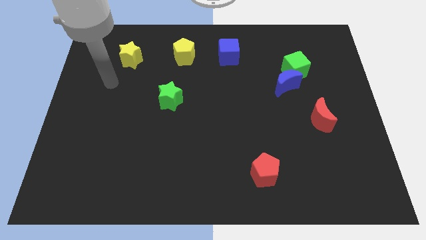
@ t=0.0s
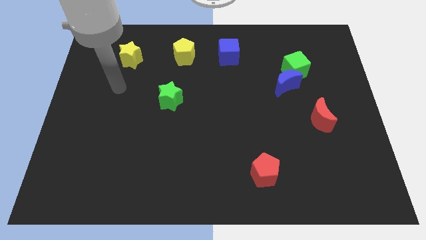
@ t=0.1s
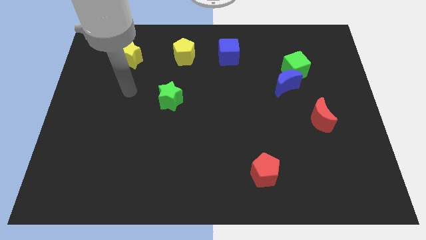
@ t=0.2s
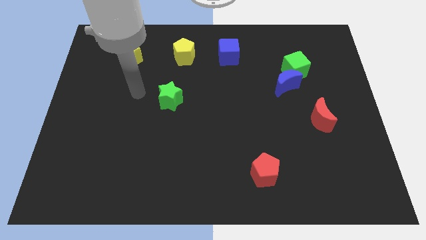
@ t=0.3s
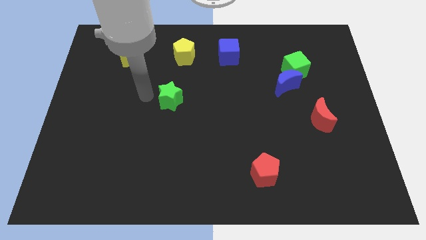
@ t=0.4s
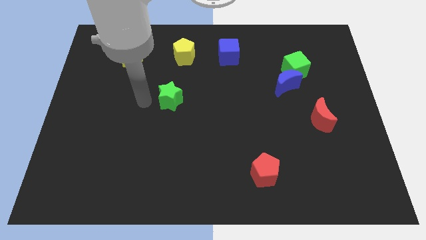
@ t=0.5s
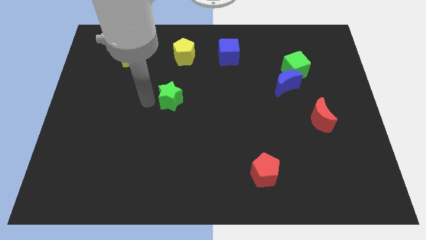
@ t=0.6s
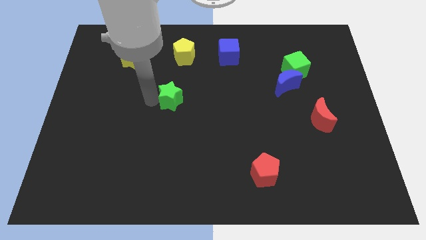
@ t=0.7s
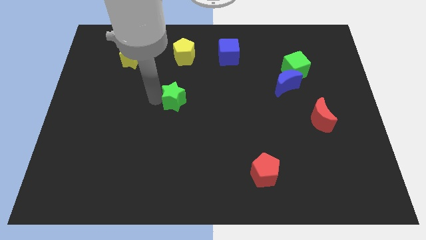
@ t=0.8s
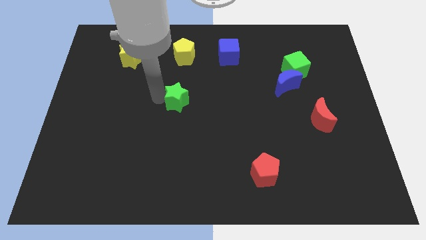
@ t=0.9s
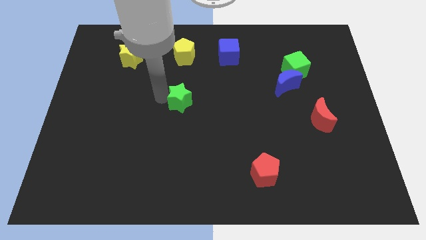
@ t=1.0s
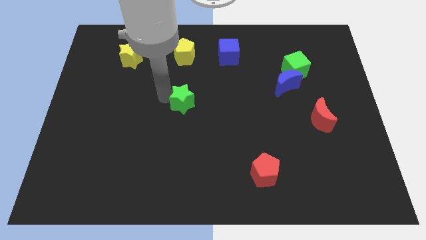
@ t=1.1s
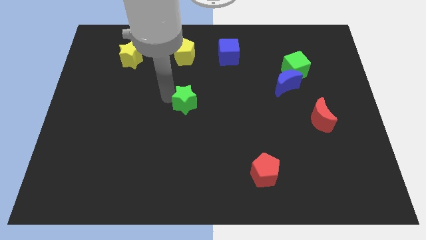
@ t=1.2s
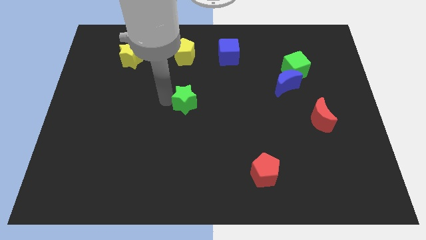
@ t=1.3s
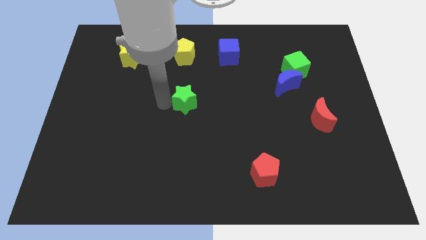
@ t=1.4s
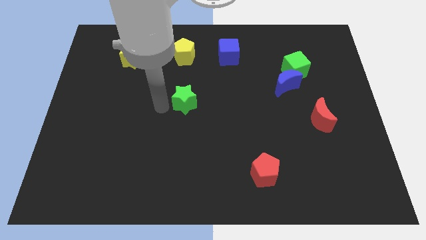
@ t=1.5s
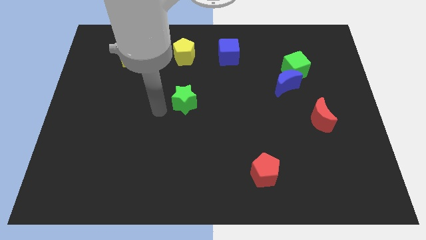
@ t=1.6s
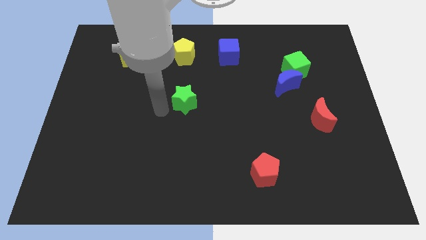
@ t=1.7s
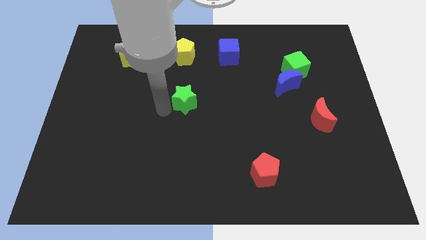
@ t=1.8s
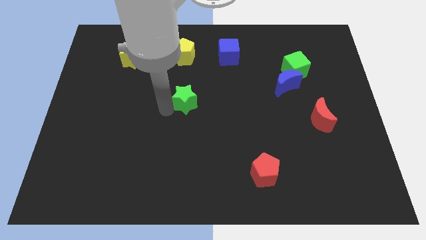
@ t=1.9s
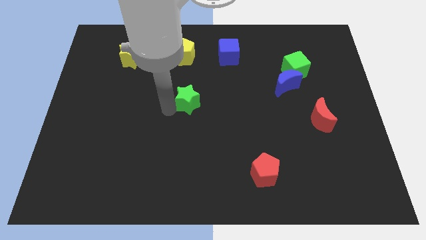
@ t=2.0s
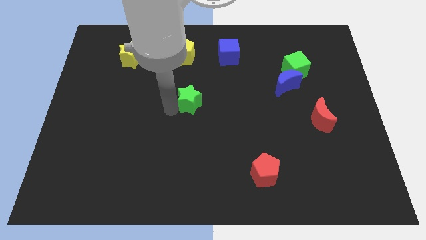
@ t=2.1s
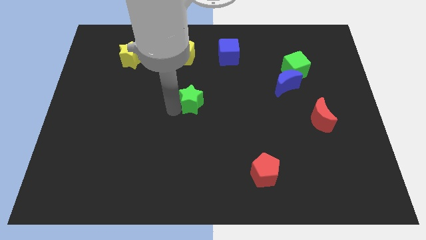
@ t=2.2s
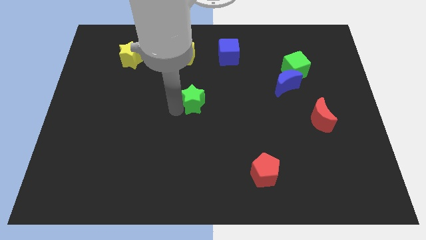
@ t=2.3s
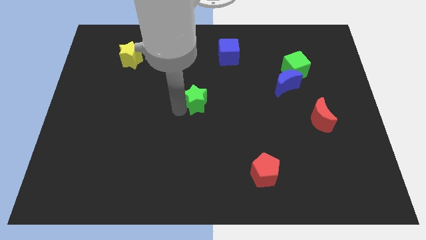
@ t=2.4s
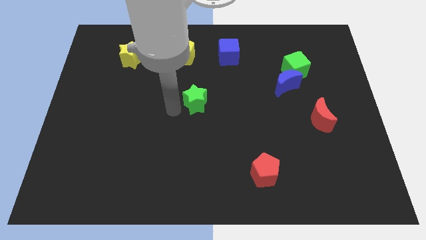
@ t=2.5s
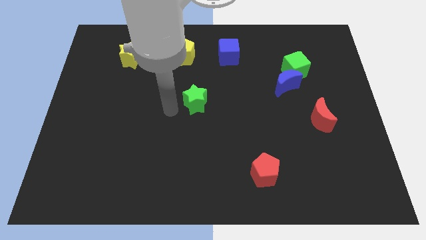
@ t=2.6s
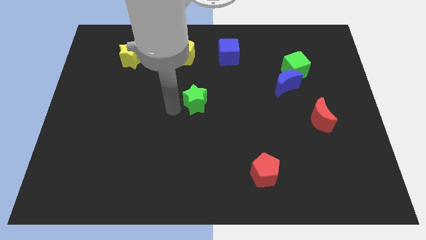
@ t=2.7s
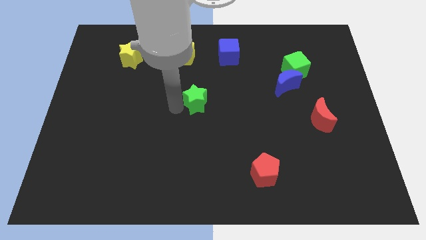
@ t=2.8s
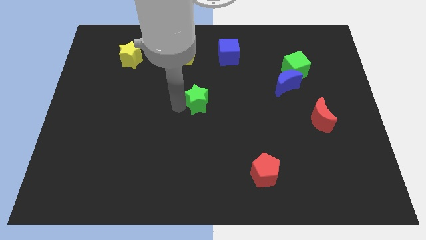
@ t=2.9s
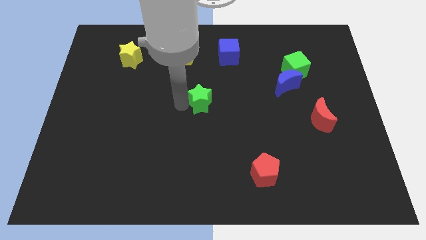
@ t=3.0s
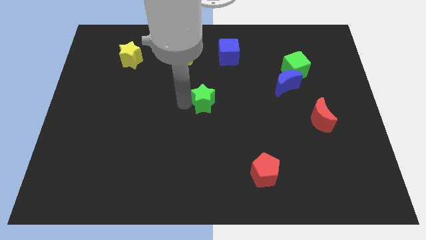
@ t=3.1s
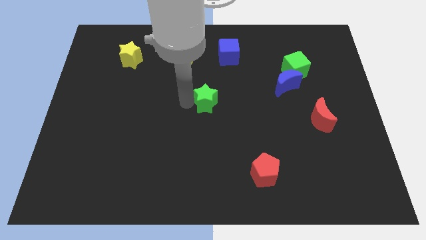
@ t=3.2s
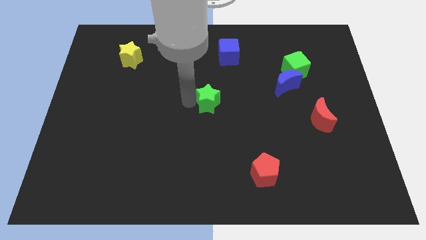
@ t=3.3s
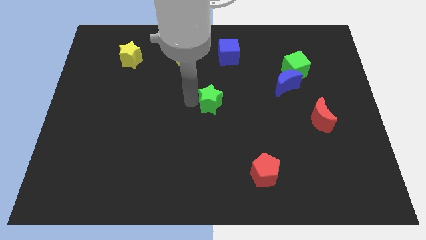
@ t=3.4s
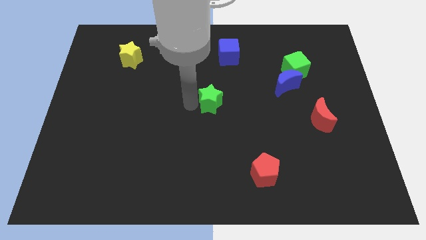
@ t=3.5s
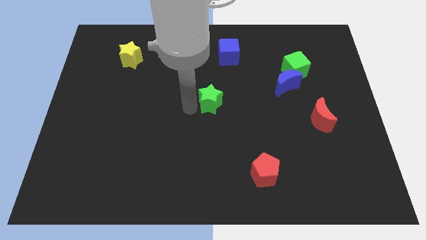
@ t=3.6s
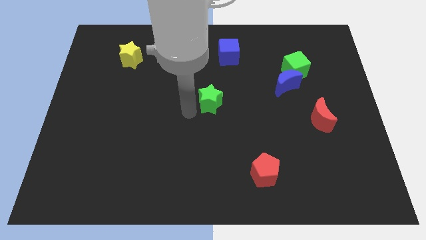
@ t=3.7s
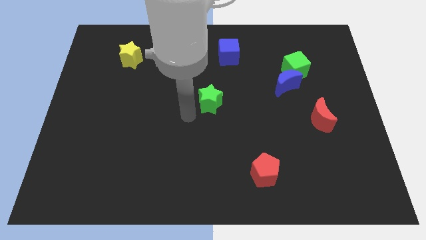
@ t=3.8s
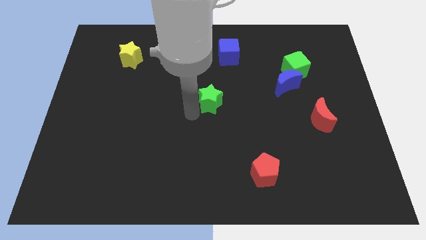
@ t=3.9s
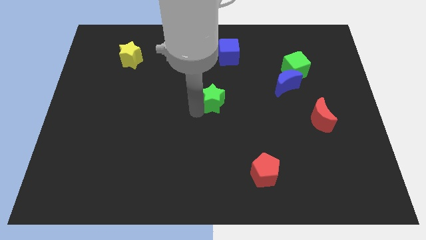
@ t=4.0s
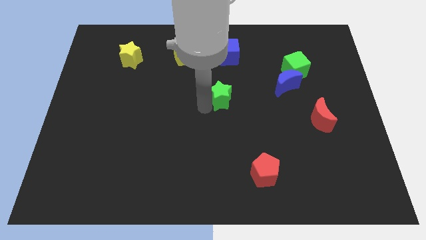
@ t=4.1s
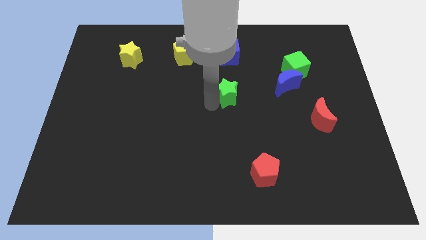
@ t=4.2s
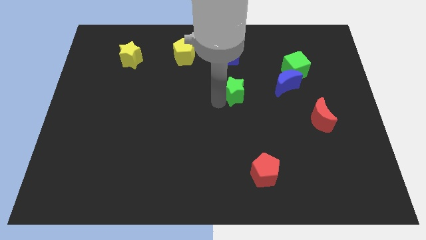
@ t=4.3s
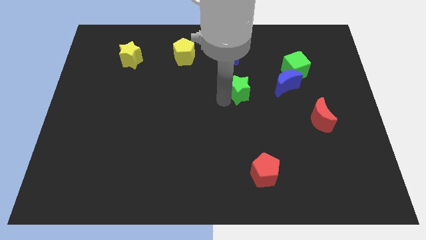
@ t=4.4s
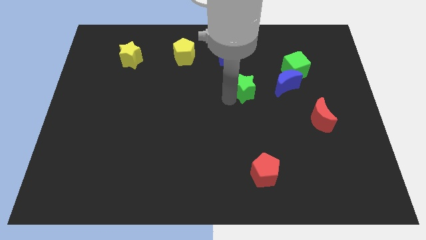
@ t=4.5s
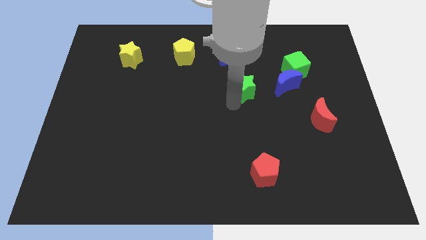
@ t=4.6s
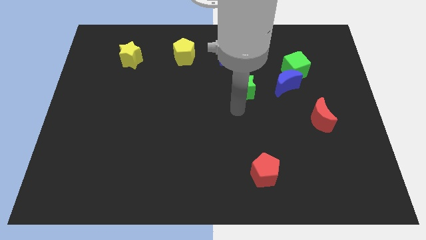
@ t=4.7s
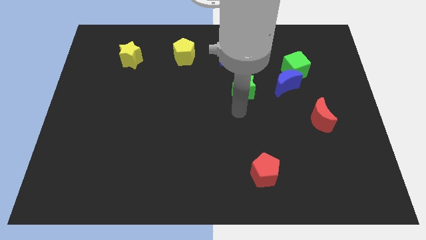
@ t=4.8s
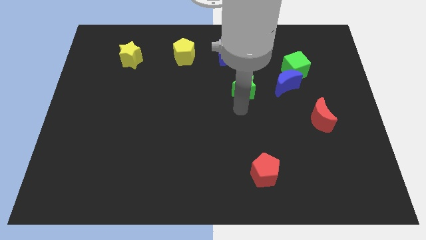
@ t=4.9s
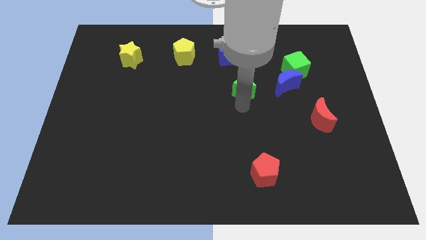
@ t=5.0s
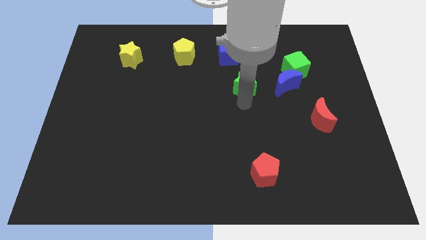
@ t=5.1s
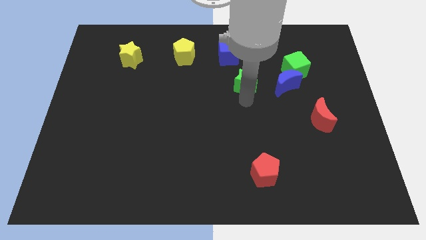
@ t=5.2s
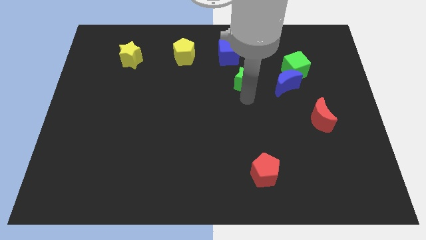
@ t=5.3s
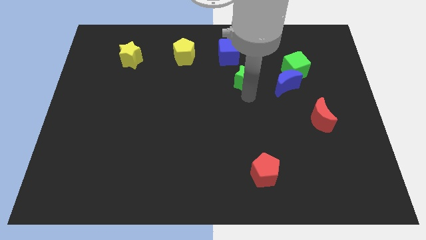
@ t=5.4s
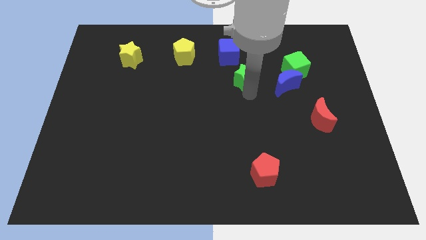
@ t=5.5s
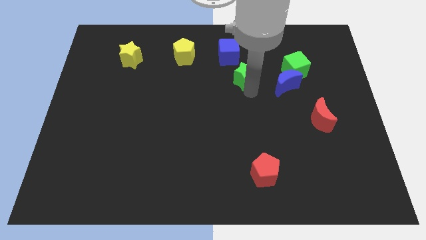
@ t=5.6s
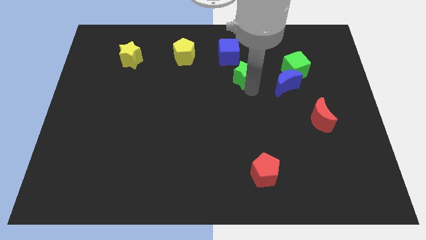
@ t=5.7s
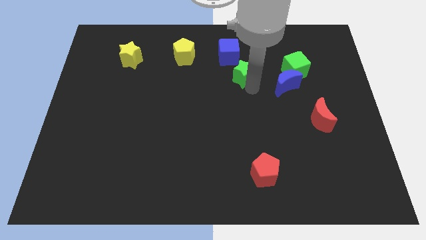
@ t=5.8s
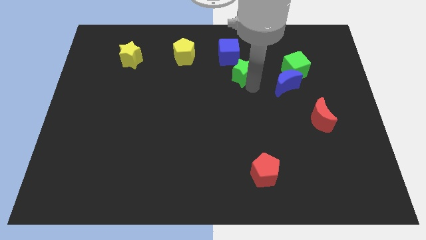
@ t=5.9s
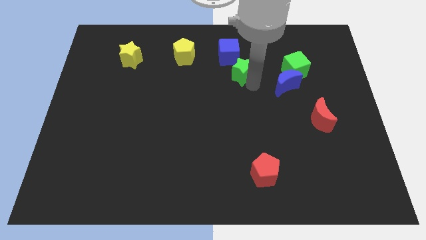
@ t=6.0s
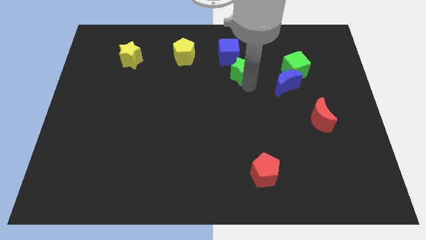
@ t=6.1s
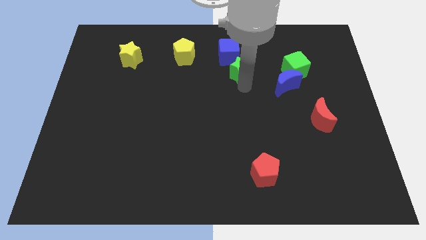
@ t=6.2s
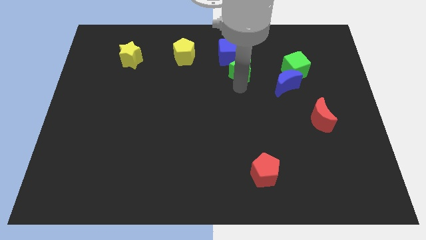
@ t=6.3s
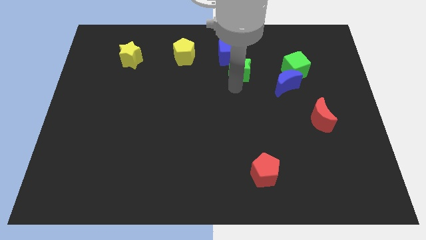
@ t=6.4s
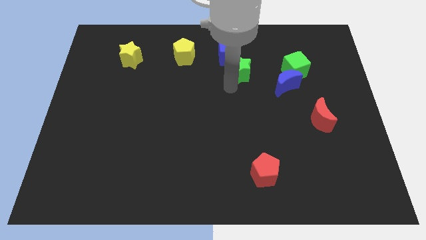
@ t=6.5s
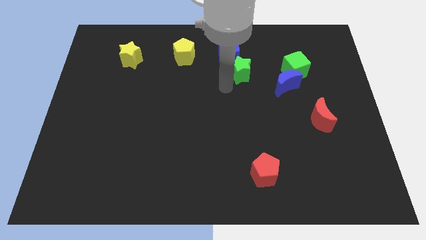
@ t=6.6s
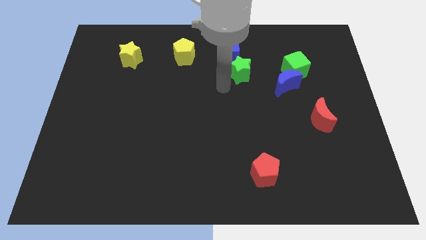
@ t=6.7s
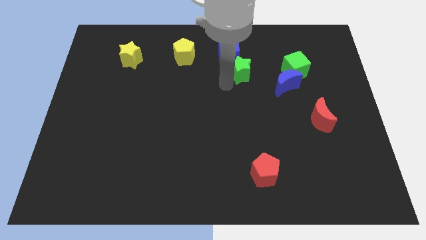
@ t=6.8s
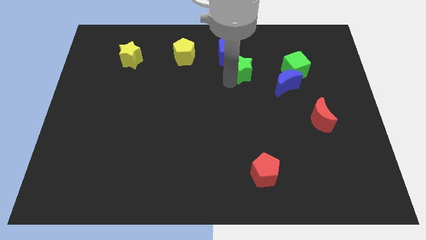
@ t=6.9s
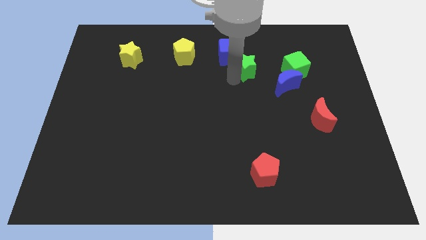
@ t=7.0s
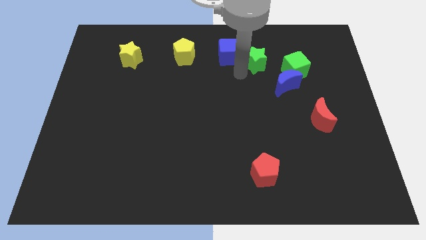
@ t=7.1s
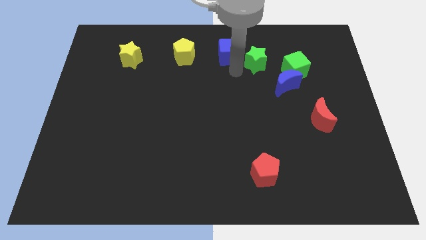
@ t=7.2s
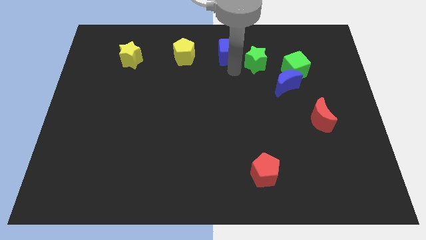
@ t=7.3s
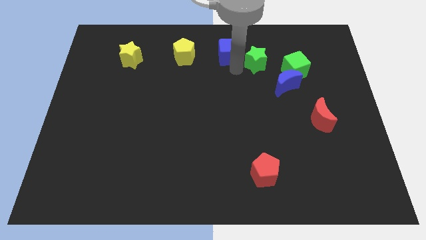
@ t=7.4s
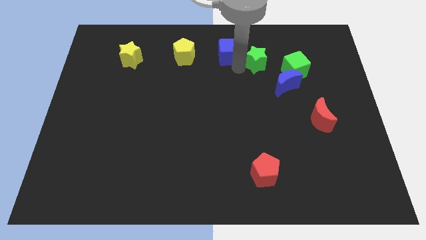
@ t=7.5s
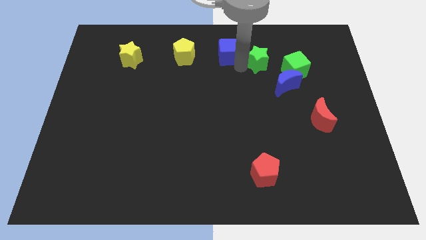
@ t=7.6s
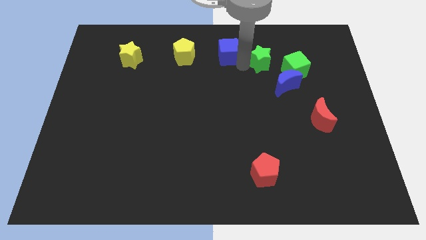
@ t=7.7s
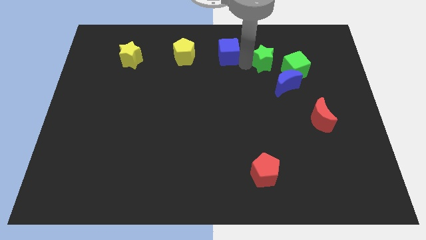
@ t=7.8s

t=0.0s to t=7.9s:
put the green star to the top side of the blue moon
